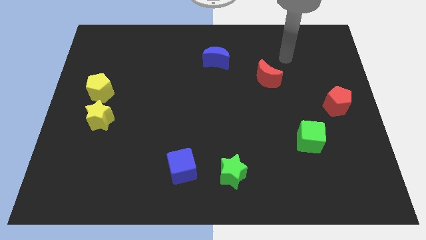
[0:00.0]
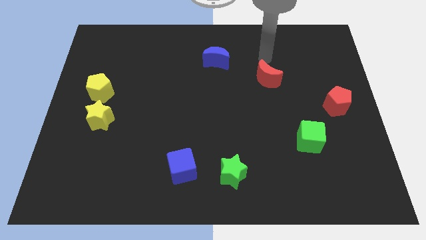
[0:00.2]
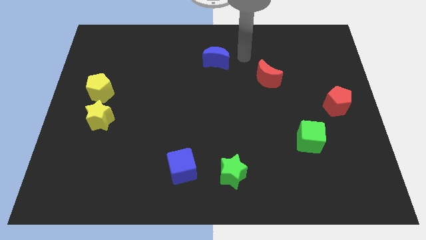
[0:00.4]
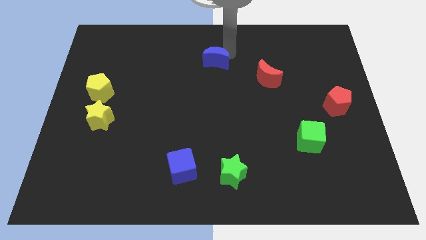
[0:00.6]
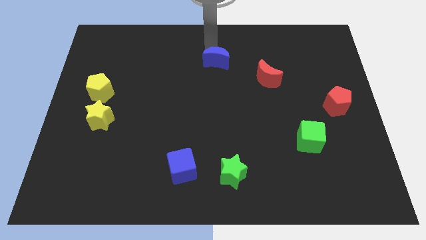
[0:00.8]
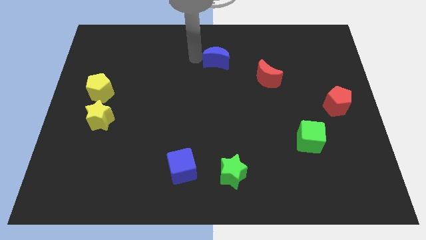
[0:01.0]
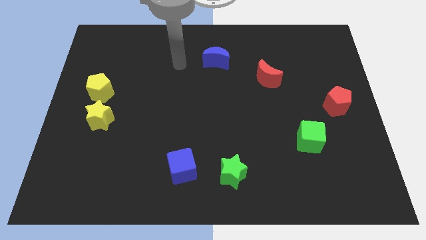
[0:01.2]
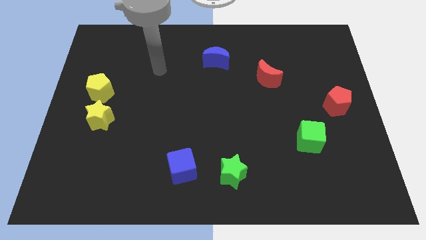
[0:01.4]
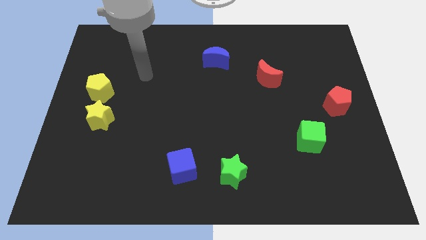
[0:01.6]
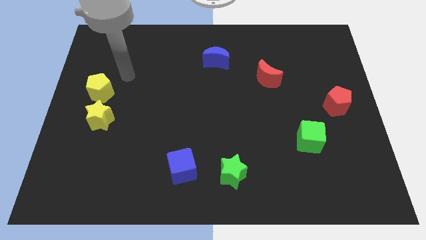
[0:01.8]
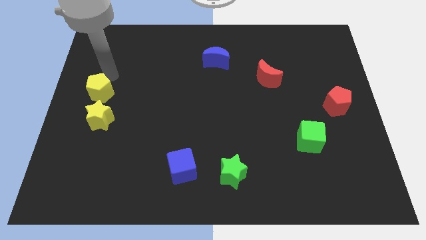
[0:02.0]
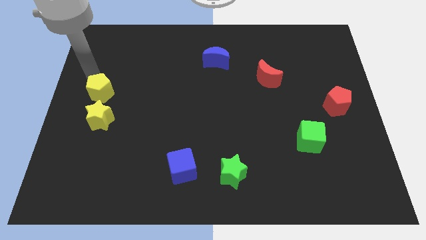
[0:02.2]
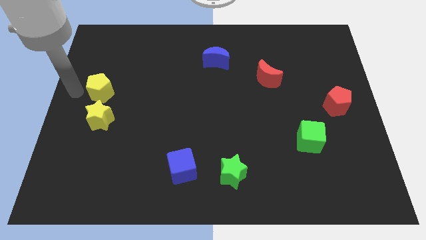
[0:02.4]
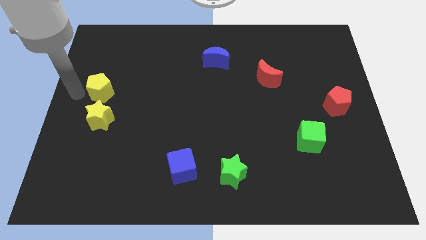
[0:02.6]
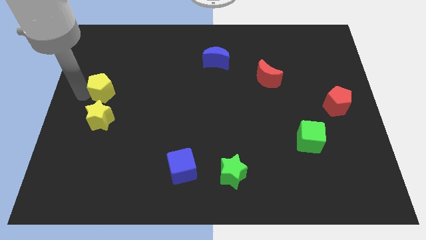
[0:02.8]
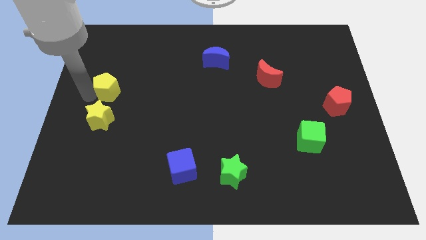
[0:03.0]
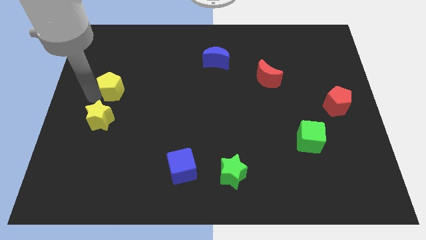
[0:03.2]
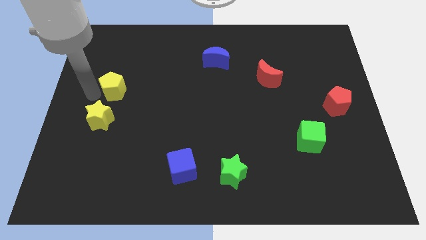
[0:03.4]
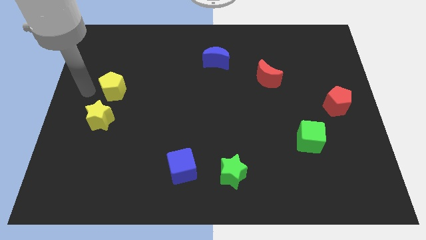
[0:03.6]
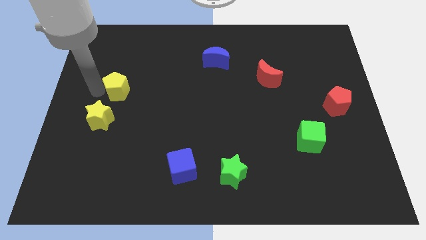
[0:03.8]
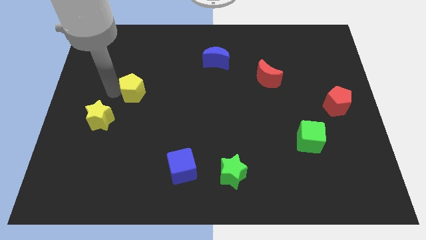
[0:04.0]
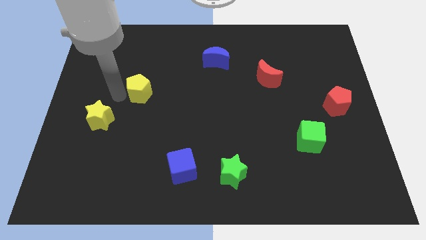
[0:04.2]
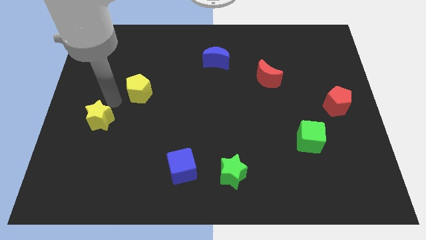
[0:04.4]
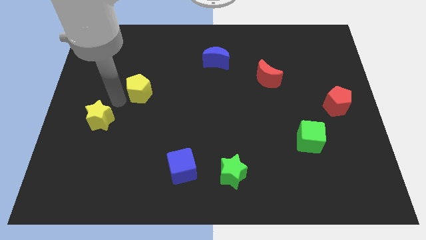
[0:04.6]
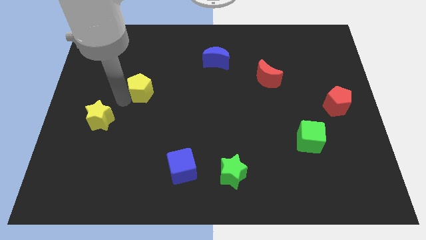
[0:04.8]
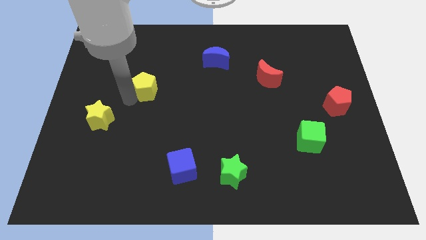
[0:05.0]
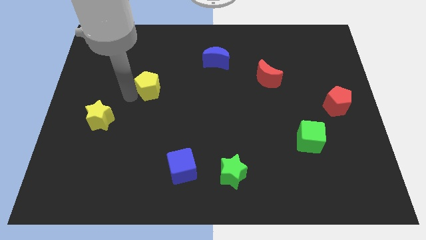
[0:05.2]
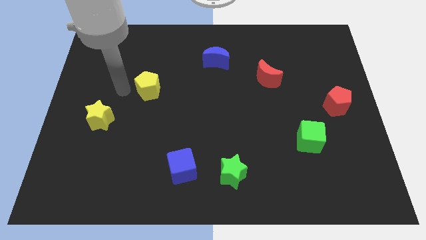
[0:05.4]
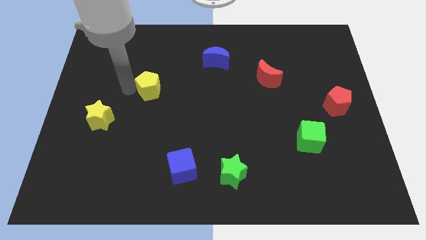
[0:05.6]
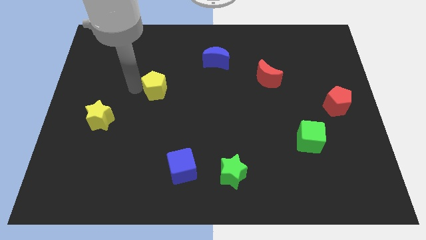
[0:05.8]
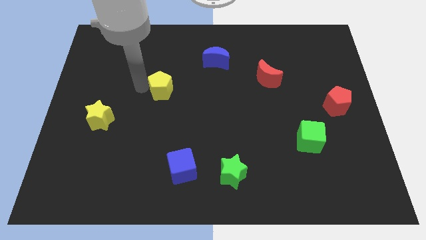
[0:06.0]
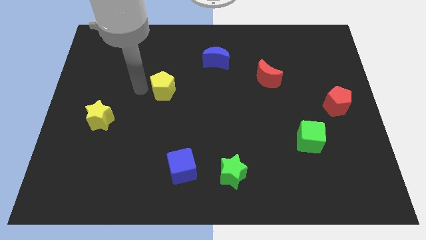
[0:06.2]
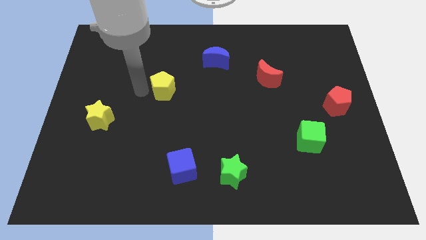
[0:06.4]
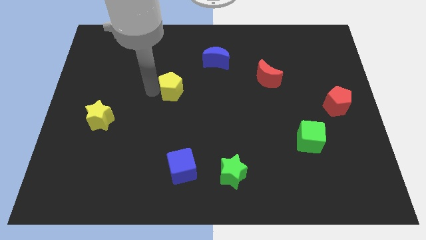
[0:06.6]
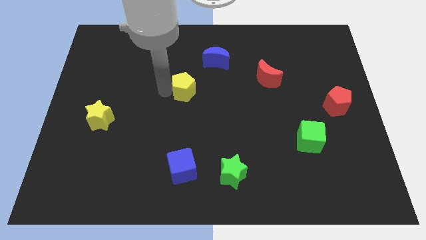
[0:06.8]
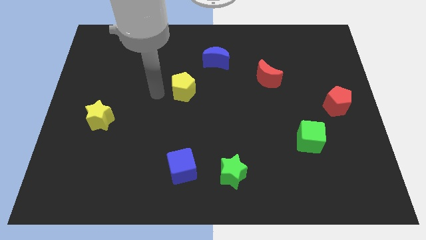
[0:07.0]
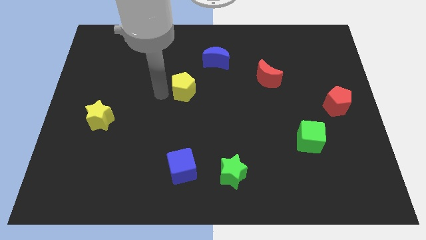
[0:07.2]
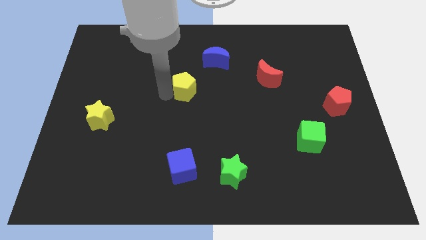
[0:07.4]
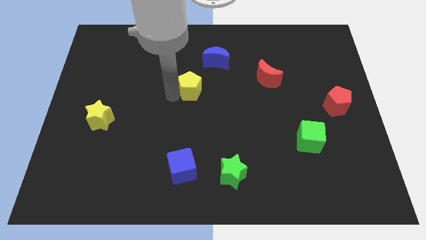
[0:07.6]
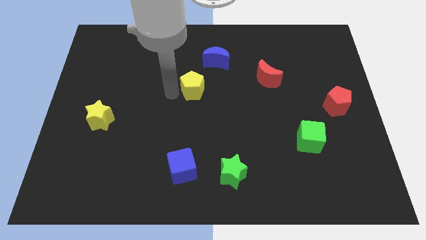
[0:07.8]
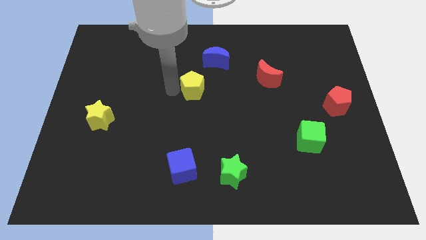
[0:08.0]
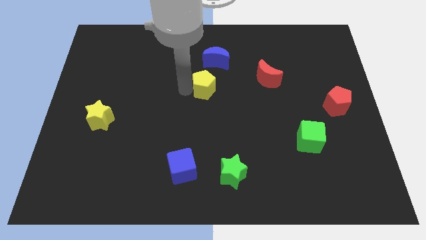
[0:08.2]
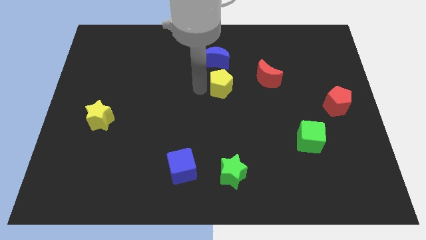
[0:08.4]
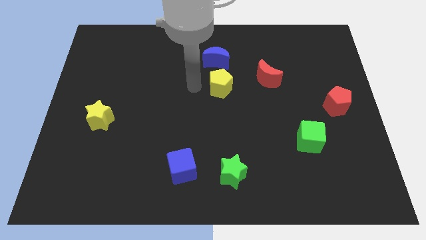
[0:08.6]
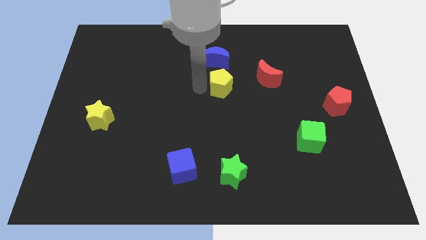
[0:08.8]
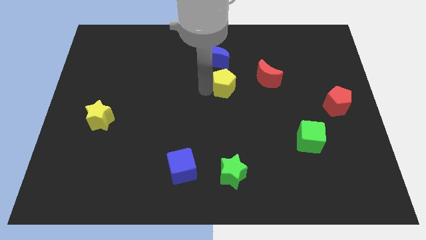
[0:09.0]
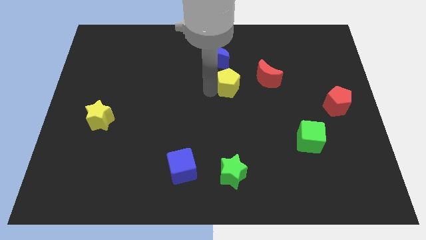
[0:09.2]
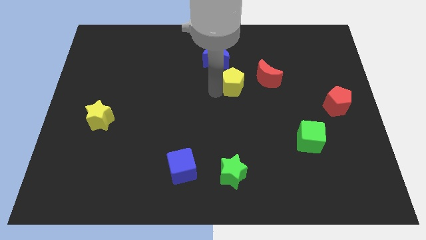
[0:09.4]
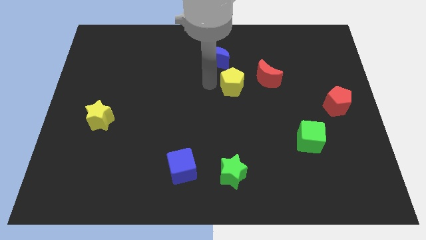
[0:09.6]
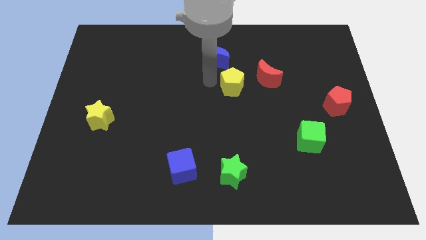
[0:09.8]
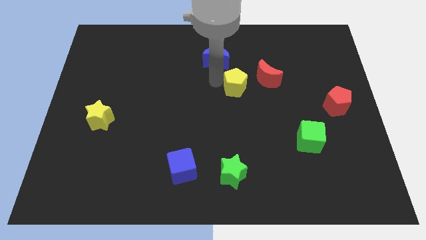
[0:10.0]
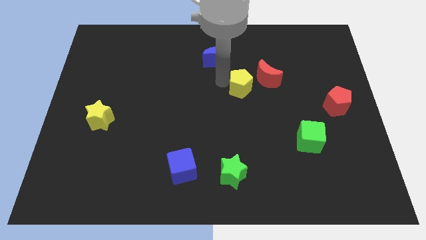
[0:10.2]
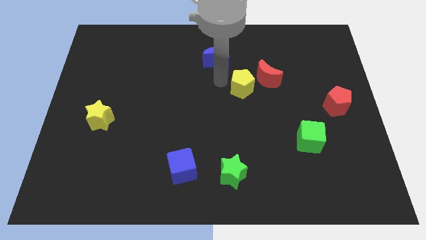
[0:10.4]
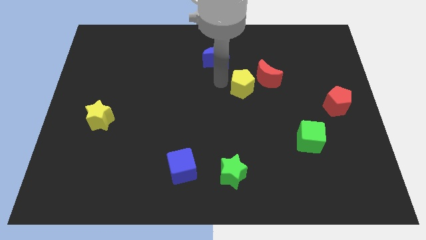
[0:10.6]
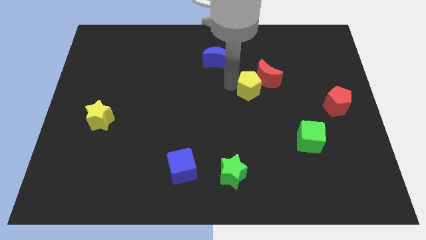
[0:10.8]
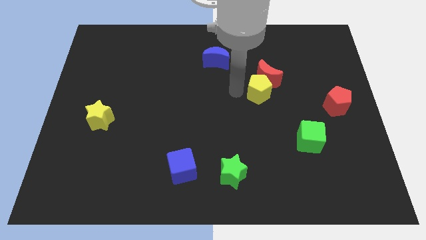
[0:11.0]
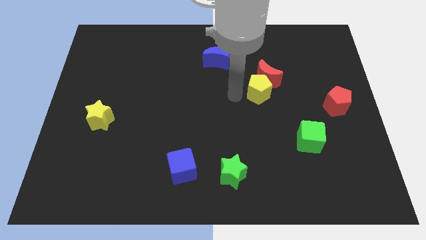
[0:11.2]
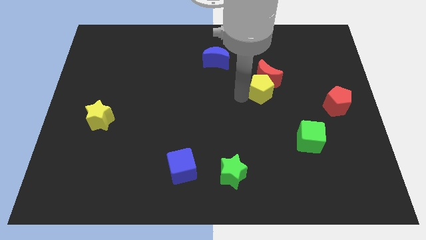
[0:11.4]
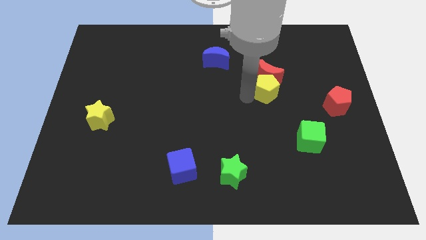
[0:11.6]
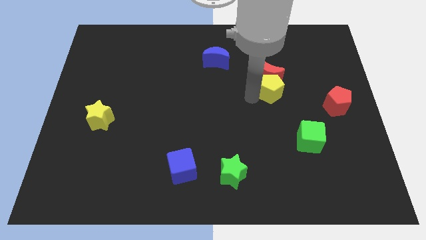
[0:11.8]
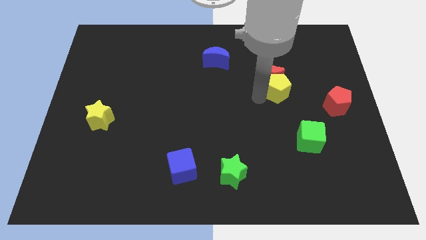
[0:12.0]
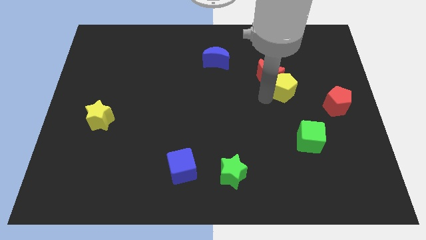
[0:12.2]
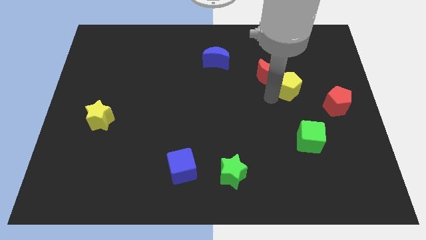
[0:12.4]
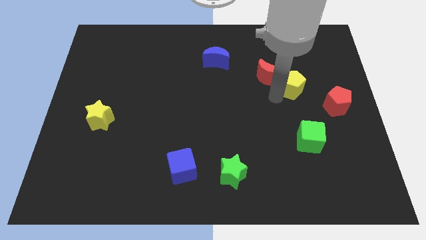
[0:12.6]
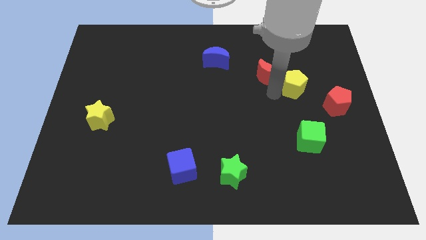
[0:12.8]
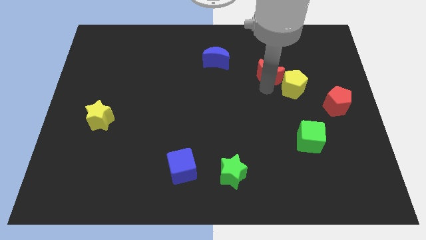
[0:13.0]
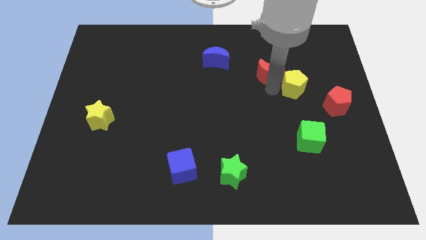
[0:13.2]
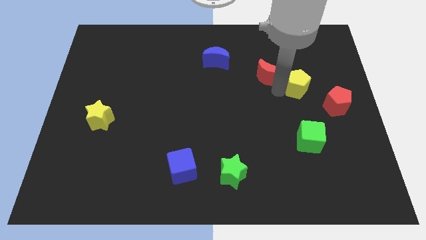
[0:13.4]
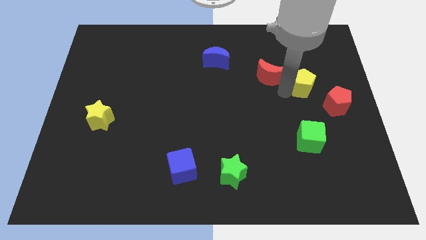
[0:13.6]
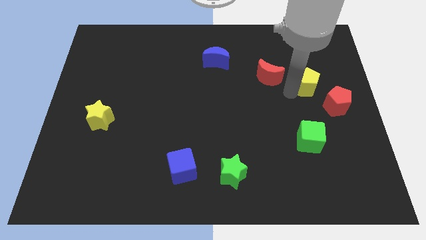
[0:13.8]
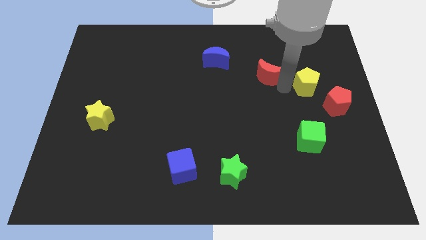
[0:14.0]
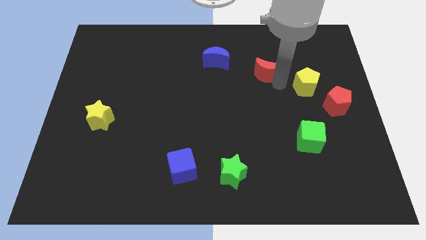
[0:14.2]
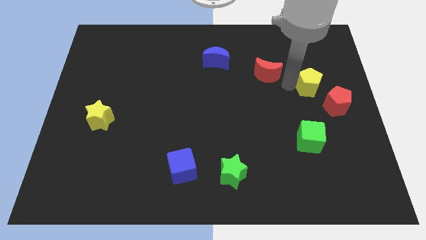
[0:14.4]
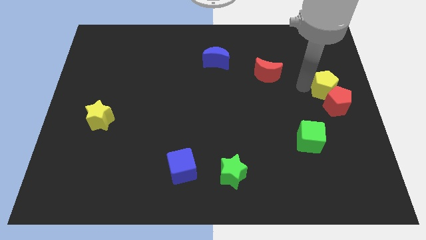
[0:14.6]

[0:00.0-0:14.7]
push the yellow pentagon to the right side of the board
